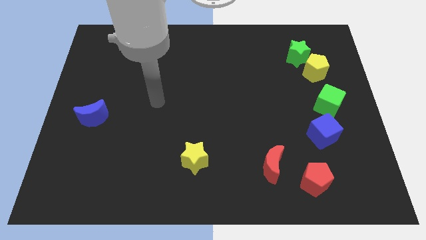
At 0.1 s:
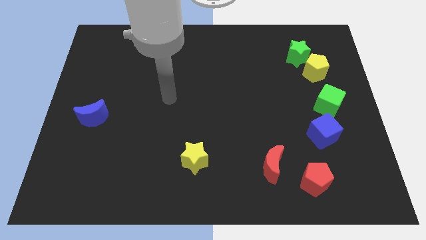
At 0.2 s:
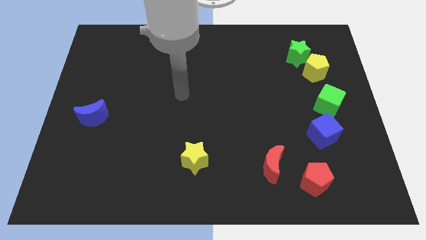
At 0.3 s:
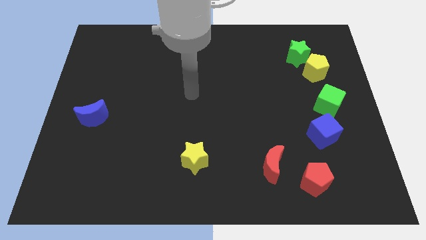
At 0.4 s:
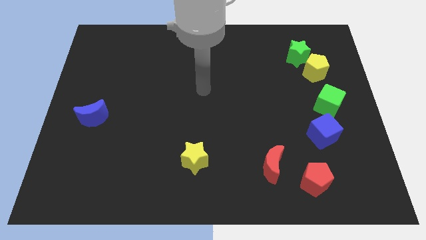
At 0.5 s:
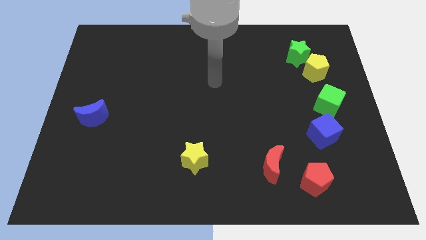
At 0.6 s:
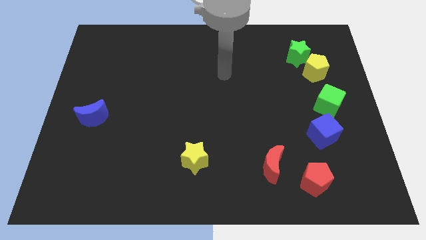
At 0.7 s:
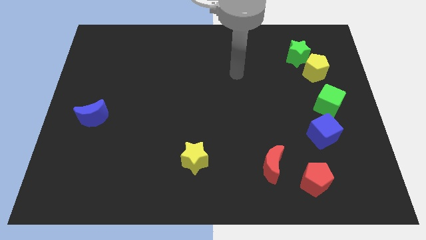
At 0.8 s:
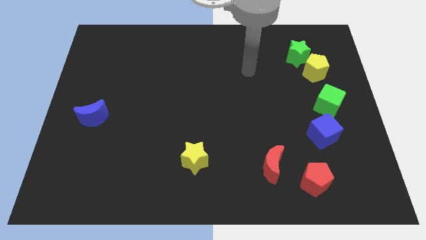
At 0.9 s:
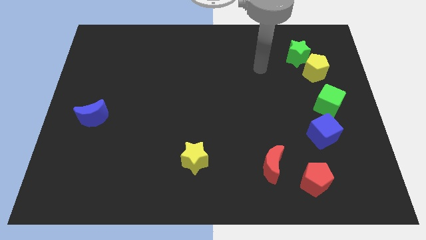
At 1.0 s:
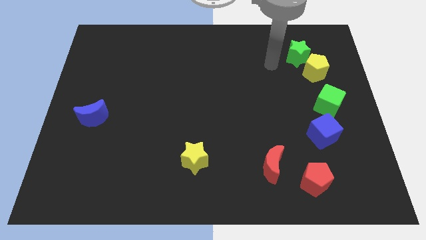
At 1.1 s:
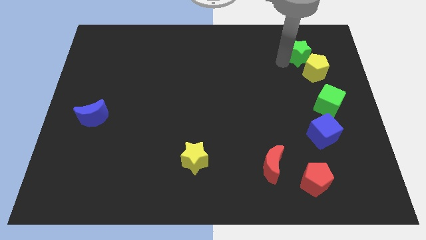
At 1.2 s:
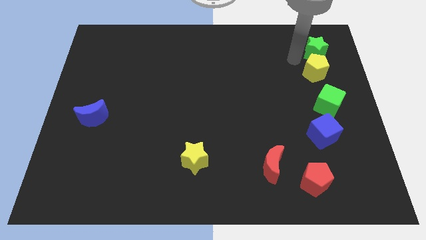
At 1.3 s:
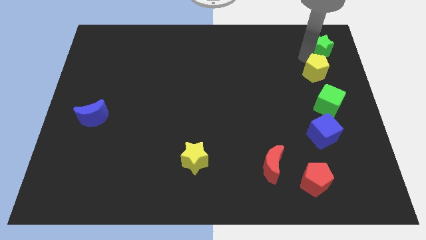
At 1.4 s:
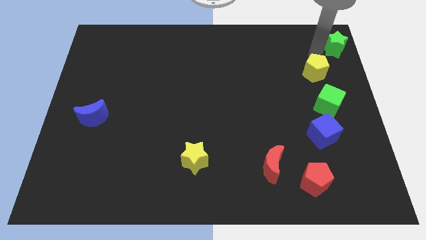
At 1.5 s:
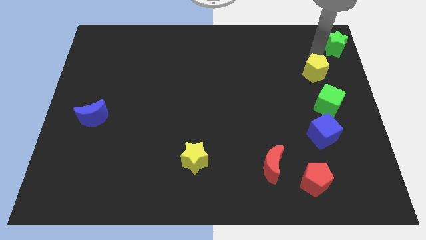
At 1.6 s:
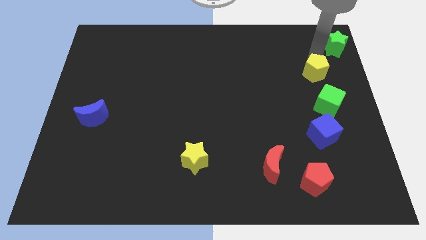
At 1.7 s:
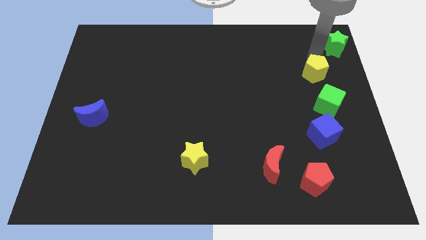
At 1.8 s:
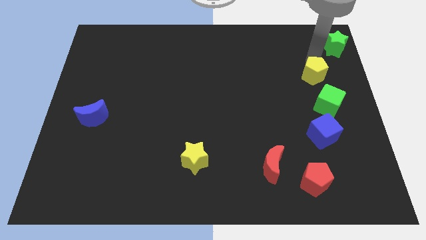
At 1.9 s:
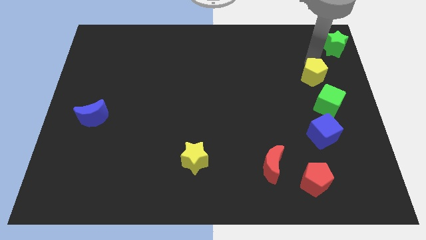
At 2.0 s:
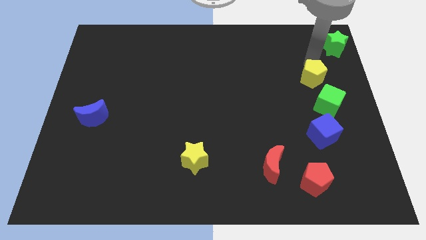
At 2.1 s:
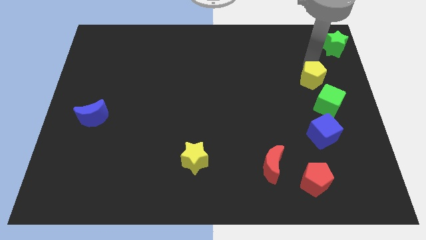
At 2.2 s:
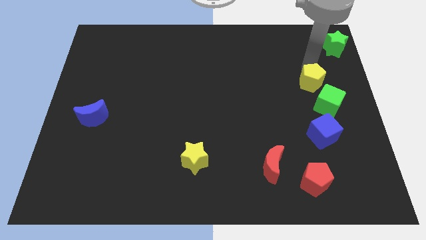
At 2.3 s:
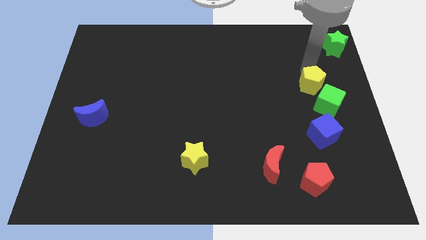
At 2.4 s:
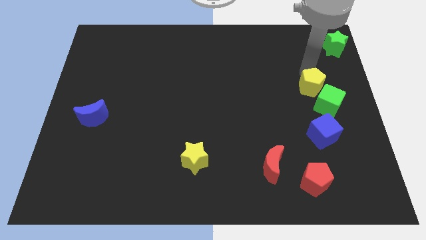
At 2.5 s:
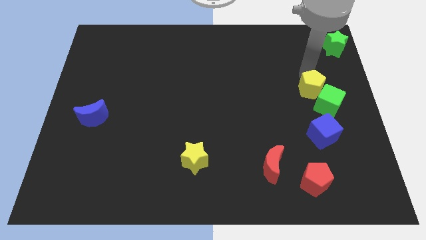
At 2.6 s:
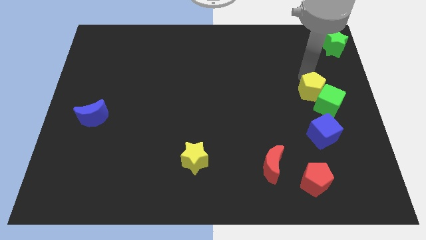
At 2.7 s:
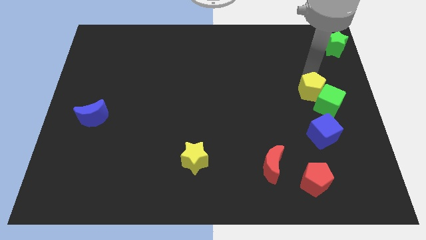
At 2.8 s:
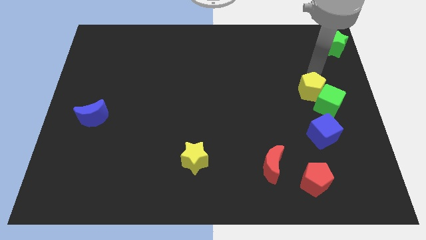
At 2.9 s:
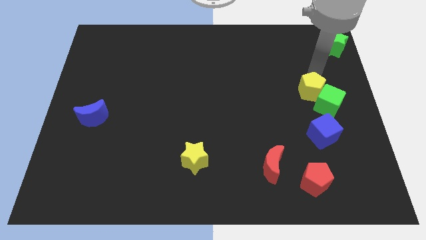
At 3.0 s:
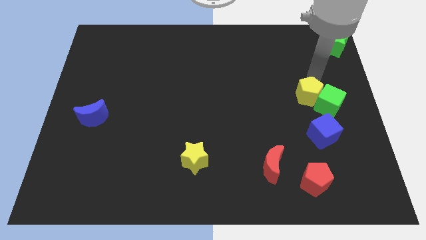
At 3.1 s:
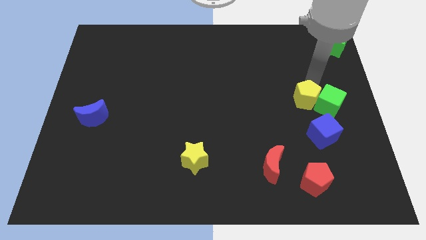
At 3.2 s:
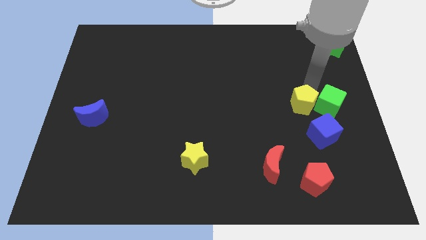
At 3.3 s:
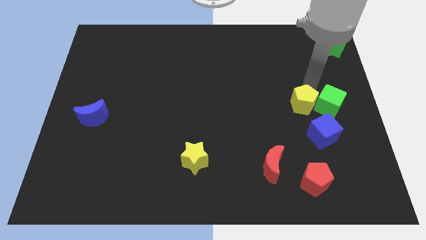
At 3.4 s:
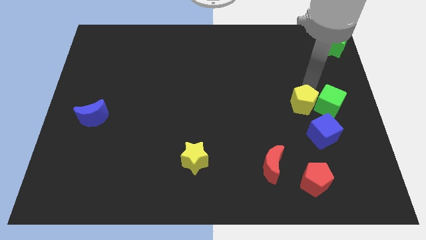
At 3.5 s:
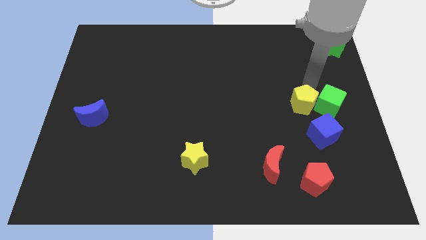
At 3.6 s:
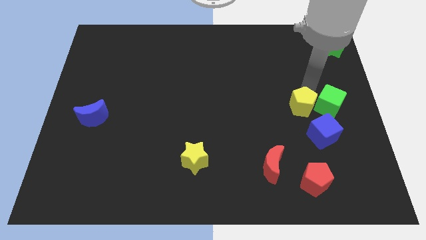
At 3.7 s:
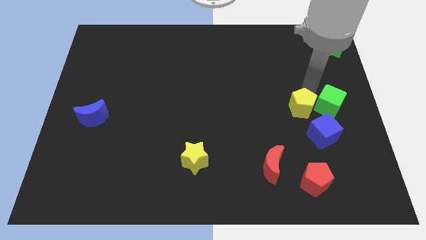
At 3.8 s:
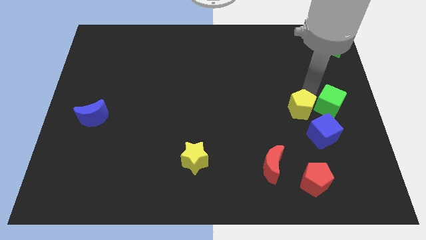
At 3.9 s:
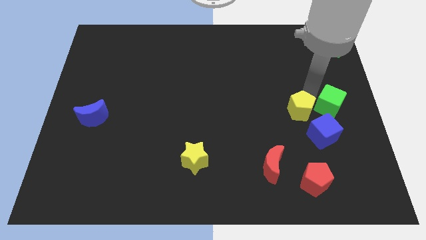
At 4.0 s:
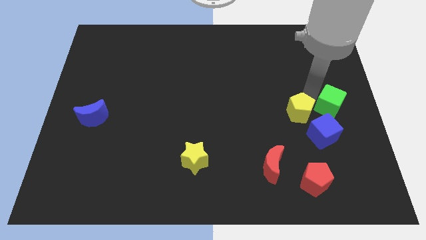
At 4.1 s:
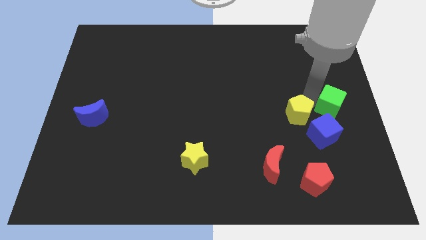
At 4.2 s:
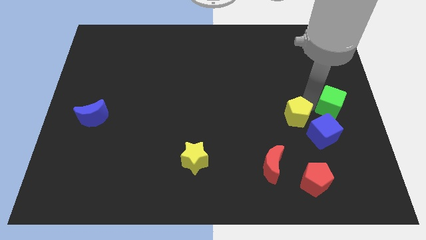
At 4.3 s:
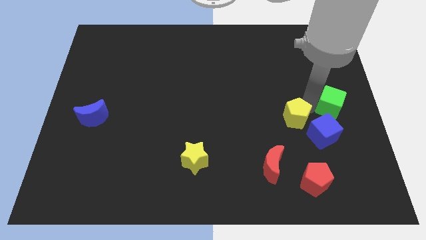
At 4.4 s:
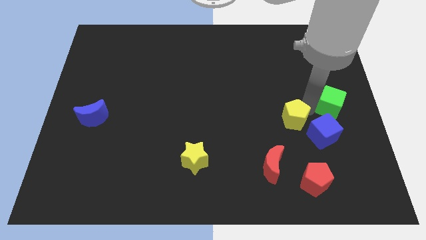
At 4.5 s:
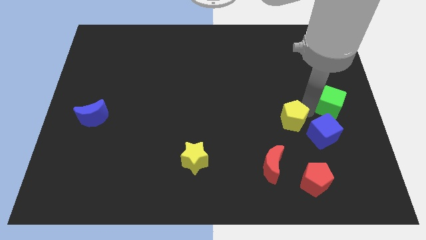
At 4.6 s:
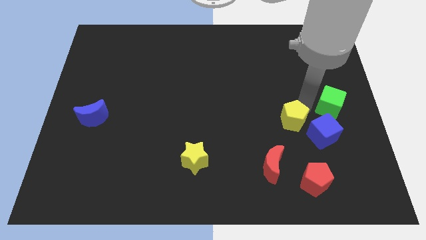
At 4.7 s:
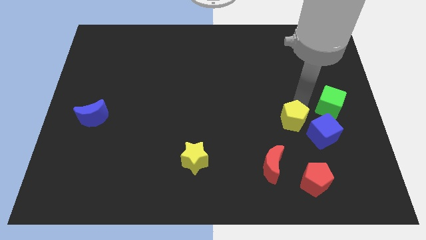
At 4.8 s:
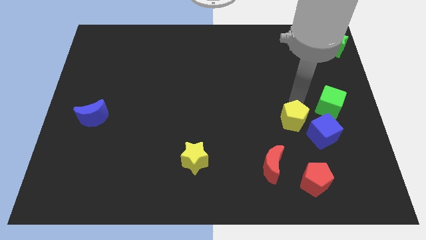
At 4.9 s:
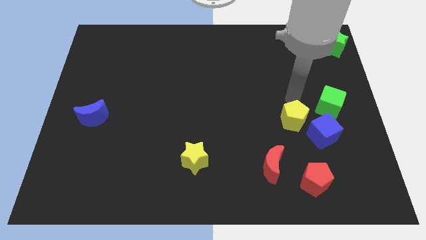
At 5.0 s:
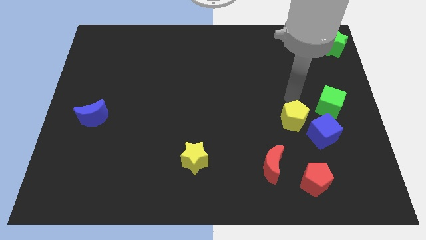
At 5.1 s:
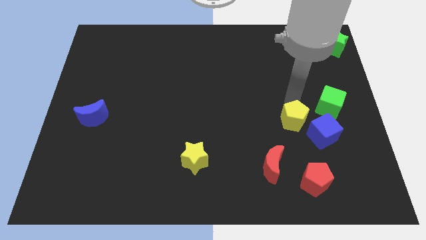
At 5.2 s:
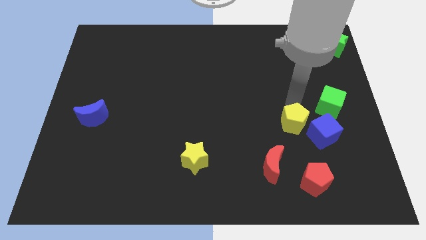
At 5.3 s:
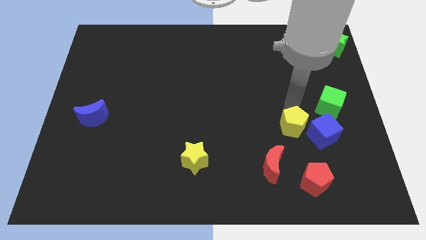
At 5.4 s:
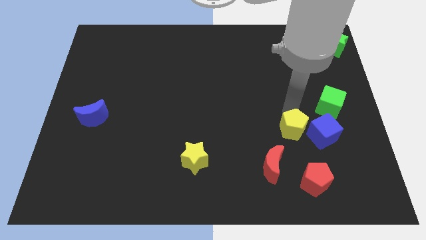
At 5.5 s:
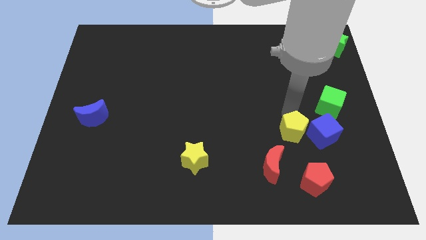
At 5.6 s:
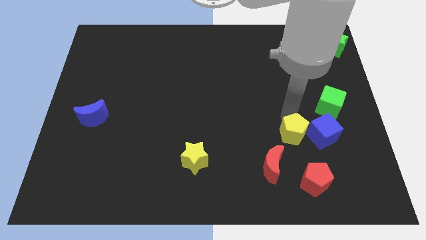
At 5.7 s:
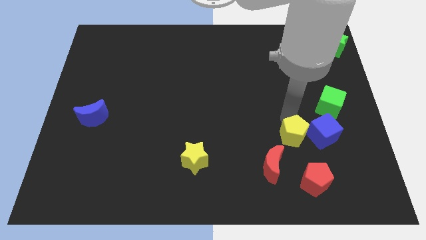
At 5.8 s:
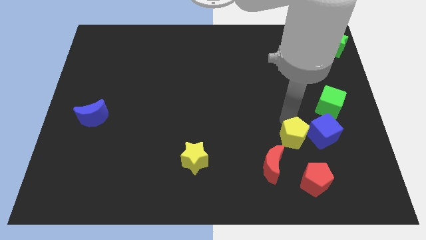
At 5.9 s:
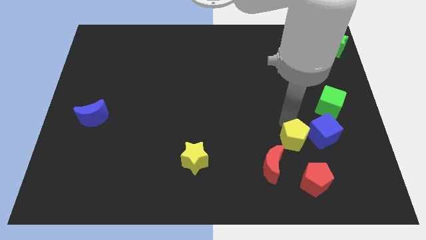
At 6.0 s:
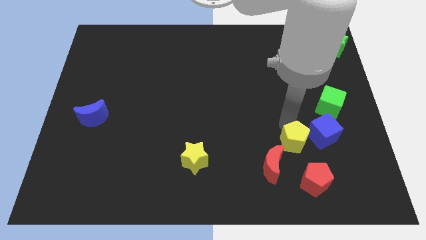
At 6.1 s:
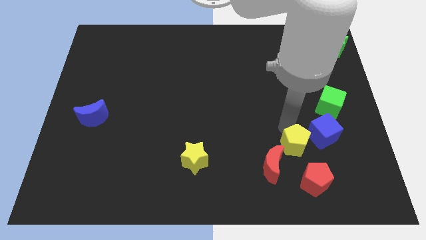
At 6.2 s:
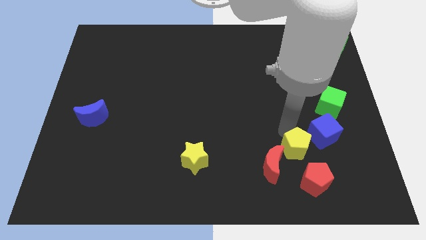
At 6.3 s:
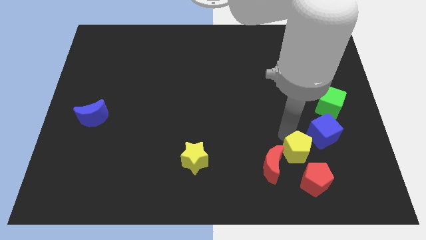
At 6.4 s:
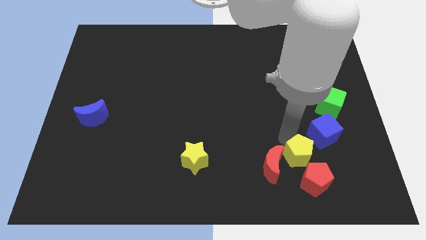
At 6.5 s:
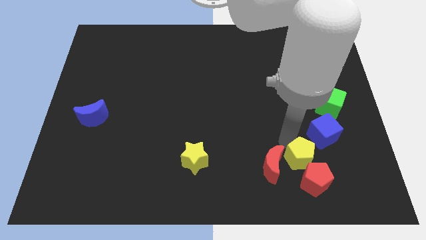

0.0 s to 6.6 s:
move the yellow pentagon to the red pentagon

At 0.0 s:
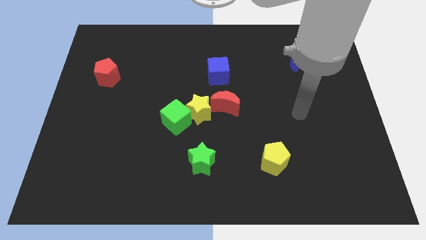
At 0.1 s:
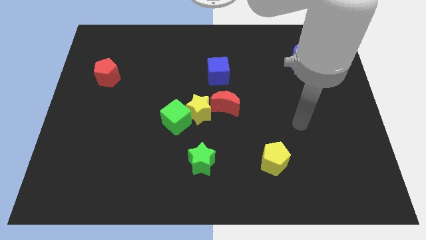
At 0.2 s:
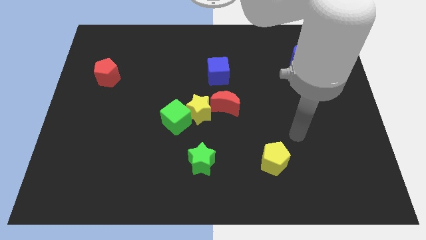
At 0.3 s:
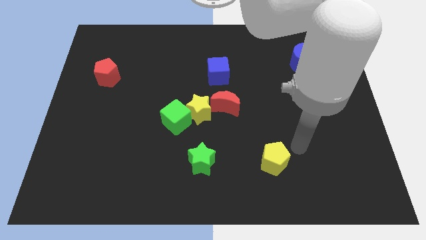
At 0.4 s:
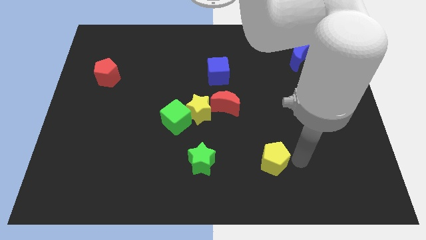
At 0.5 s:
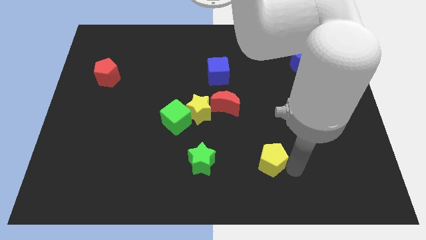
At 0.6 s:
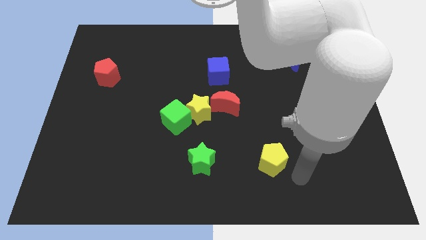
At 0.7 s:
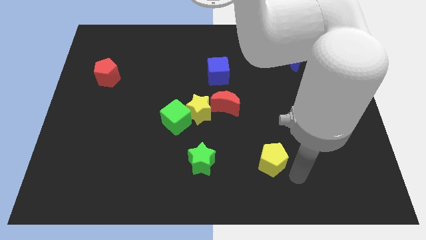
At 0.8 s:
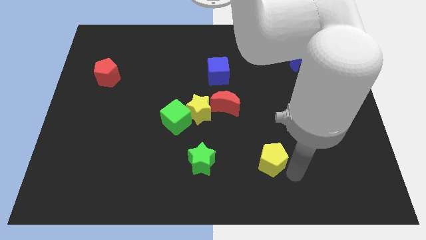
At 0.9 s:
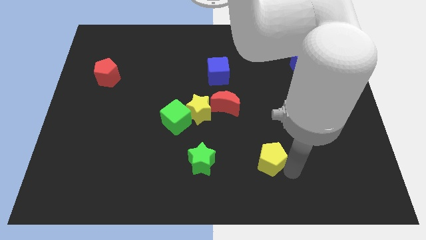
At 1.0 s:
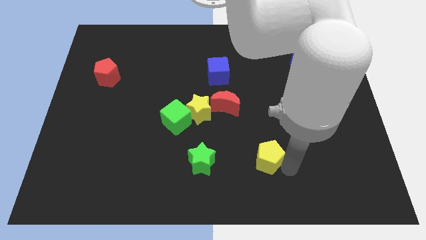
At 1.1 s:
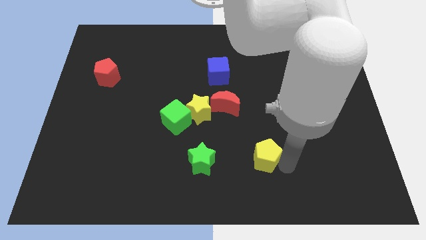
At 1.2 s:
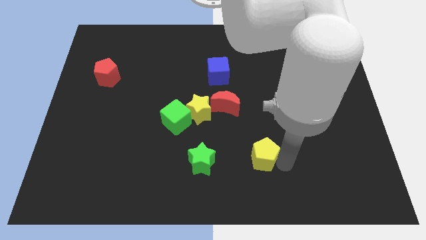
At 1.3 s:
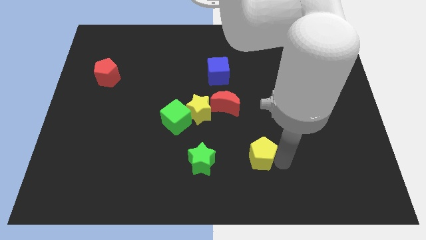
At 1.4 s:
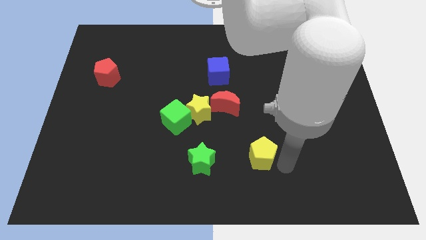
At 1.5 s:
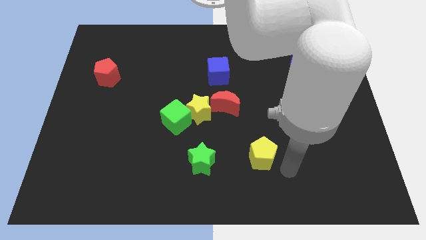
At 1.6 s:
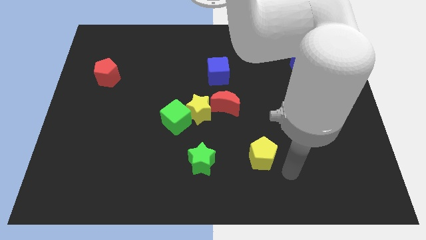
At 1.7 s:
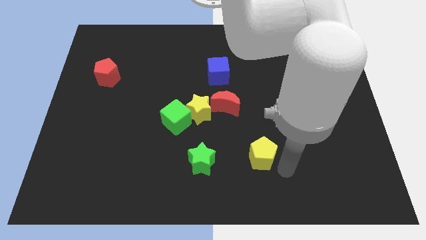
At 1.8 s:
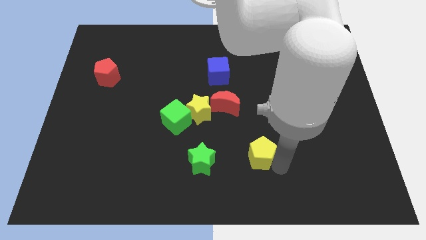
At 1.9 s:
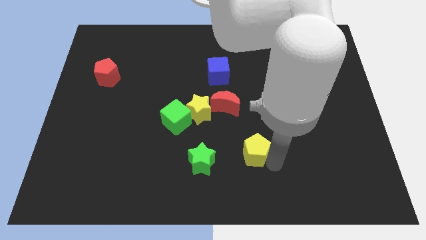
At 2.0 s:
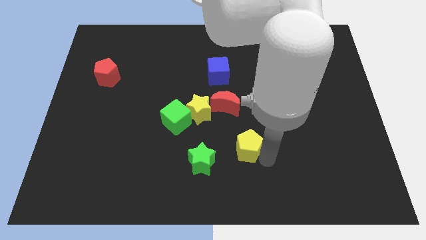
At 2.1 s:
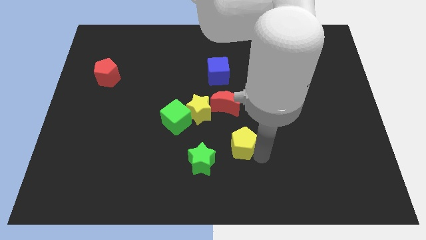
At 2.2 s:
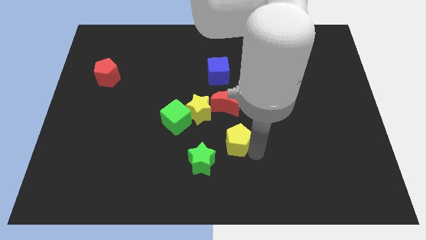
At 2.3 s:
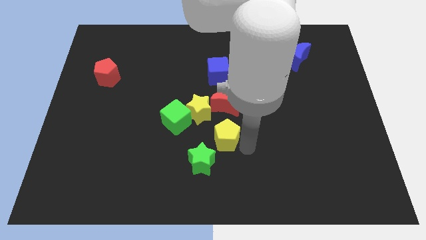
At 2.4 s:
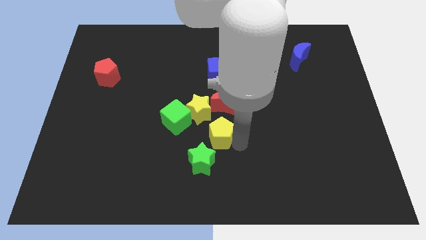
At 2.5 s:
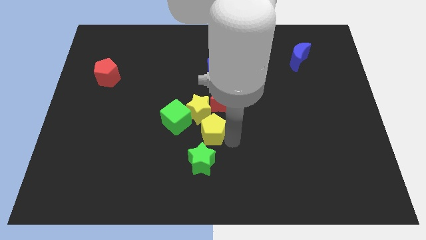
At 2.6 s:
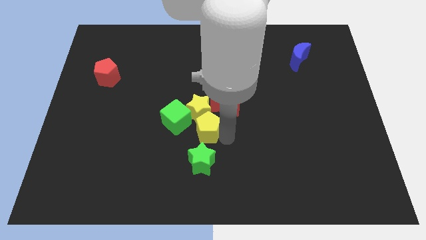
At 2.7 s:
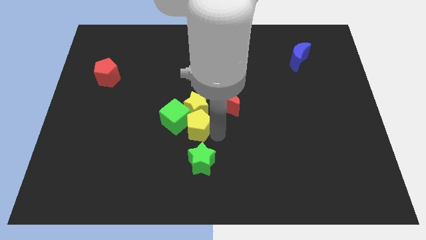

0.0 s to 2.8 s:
push the yellow pentagon to the green cube
